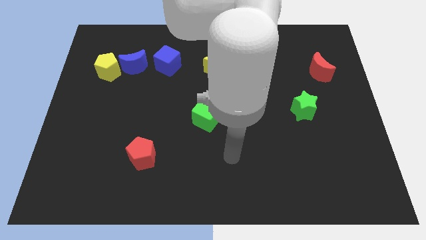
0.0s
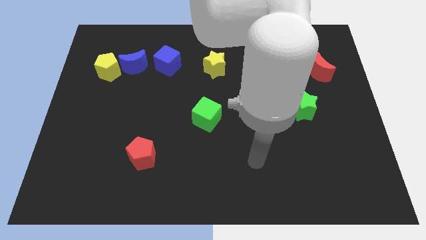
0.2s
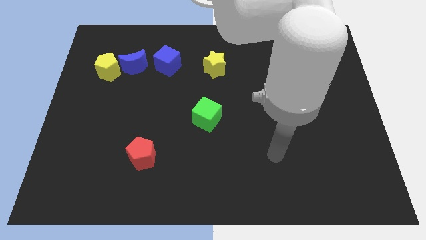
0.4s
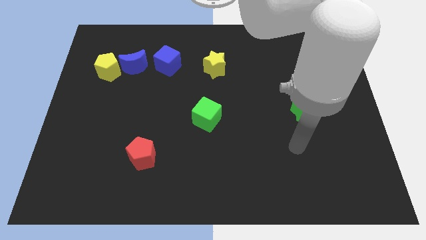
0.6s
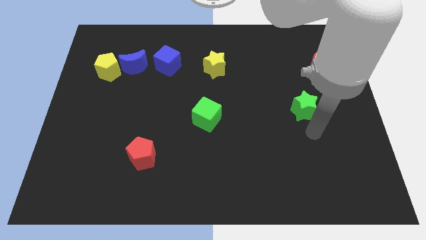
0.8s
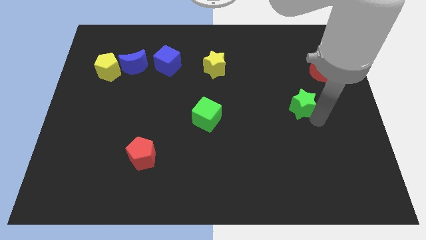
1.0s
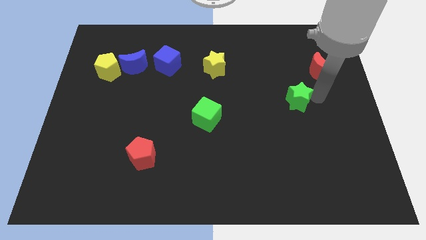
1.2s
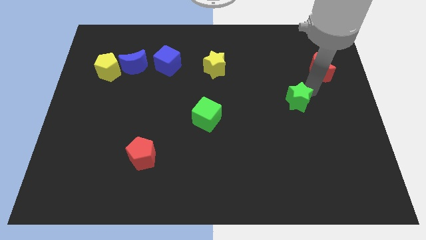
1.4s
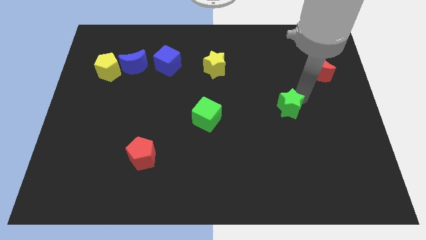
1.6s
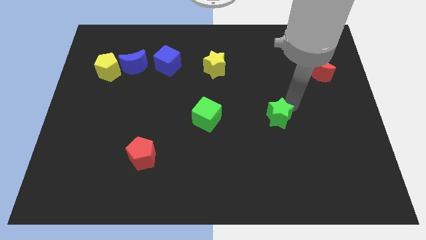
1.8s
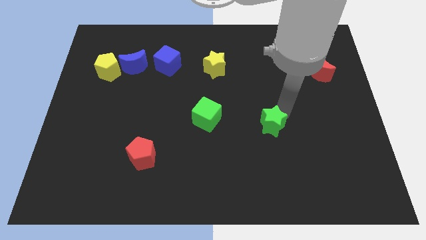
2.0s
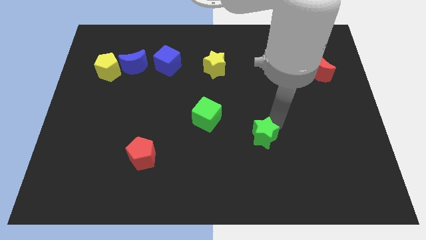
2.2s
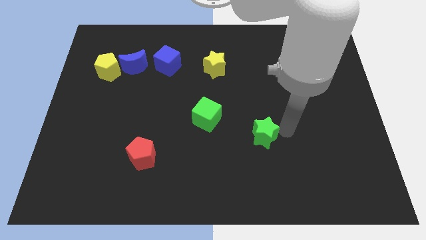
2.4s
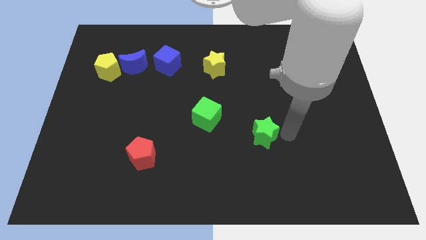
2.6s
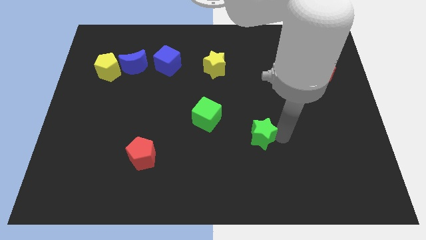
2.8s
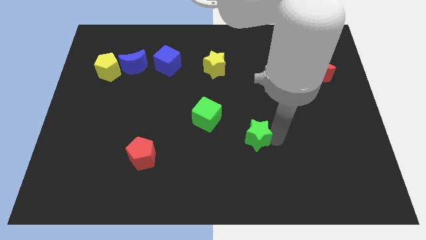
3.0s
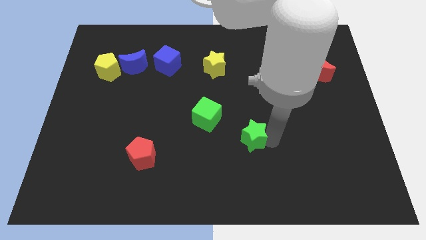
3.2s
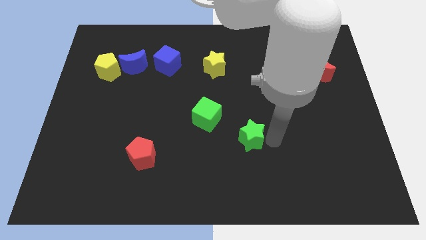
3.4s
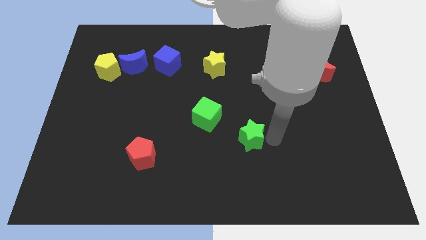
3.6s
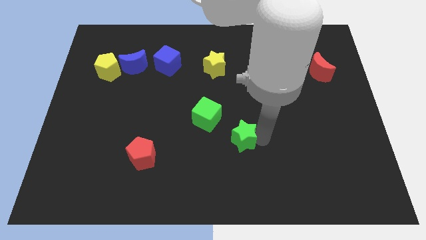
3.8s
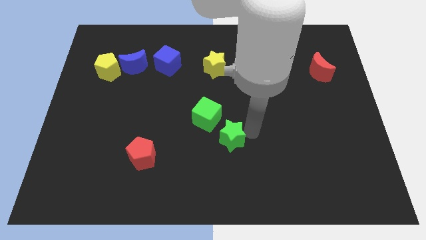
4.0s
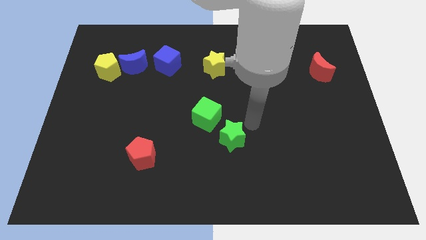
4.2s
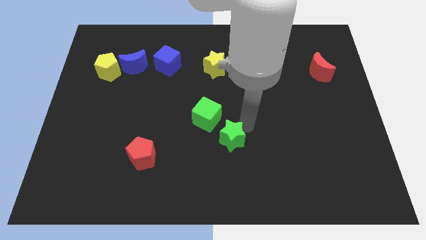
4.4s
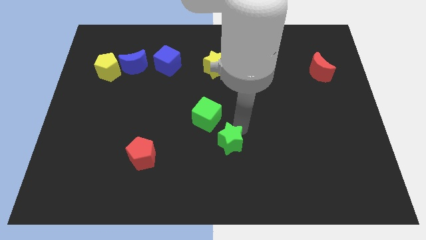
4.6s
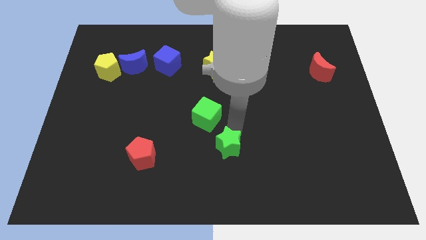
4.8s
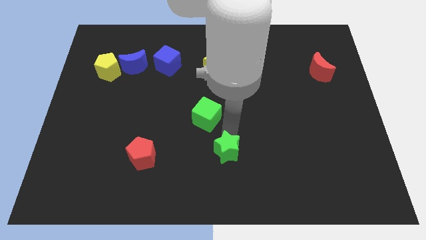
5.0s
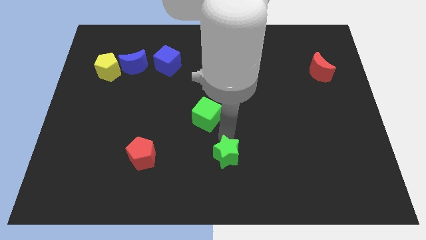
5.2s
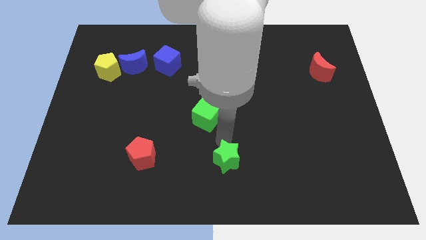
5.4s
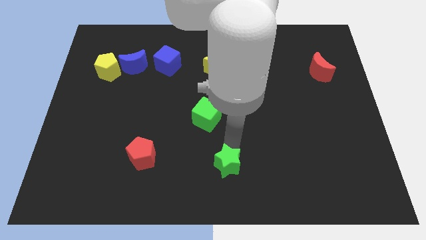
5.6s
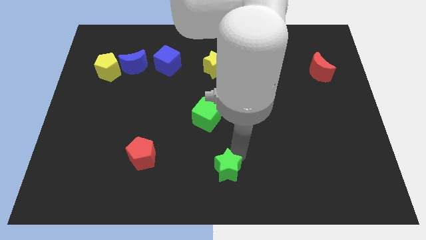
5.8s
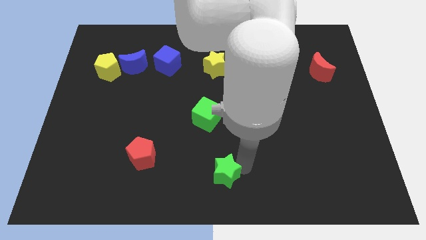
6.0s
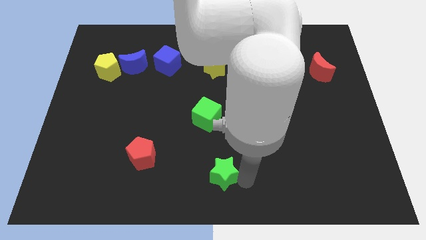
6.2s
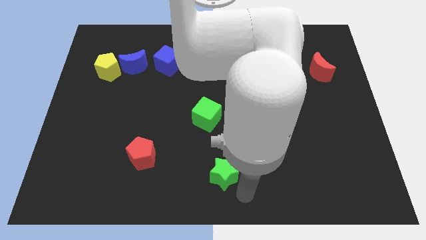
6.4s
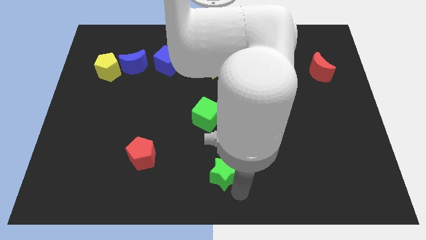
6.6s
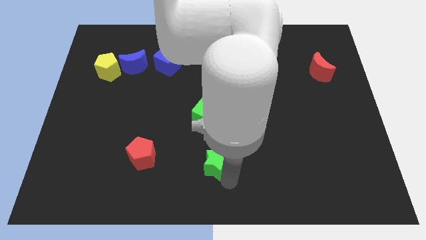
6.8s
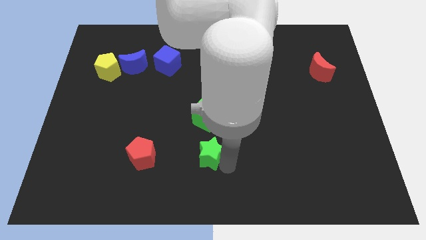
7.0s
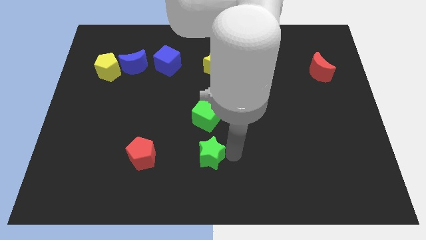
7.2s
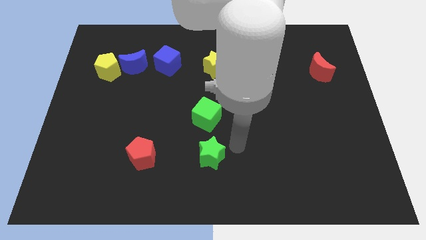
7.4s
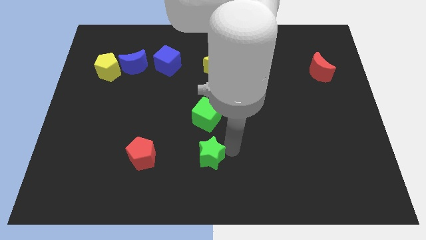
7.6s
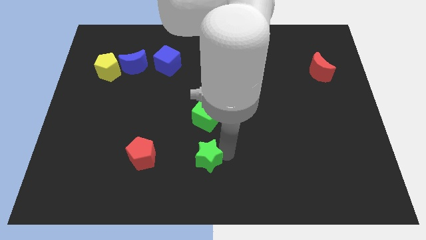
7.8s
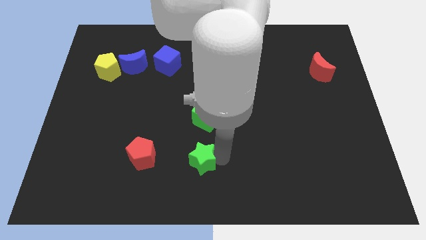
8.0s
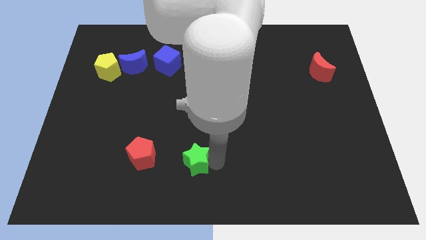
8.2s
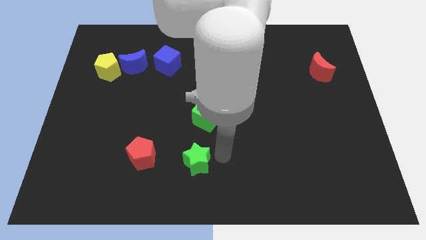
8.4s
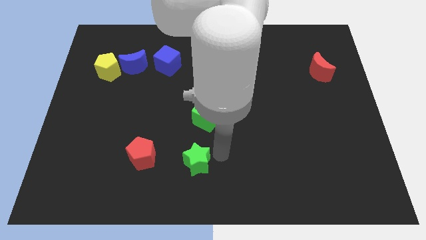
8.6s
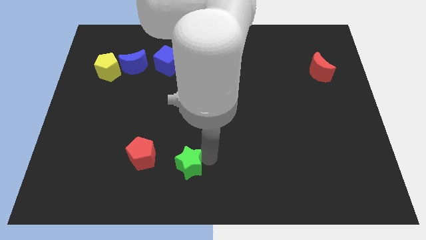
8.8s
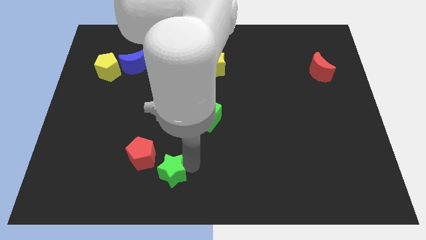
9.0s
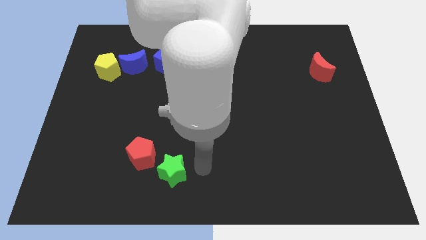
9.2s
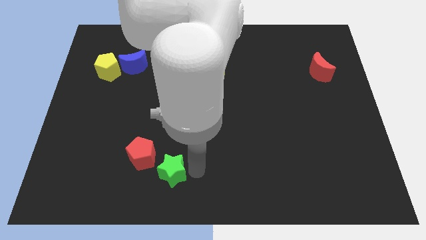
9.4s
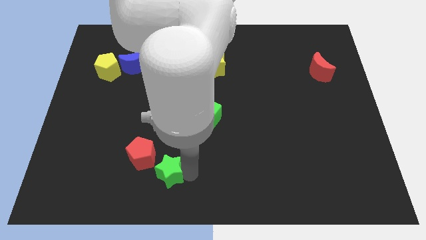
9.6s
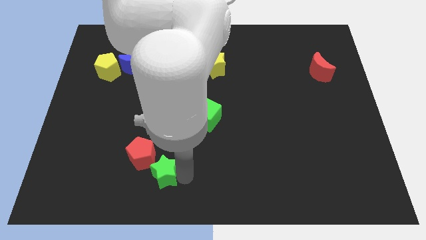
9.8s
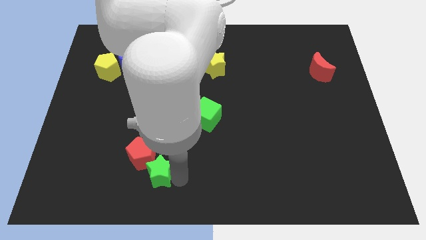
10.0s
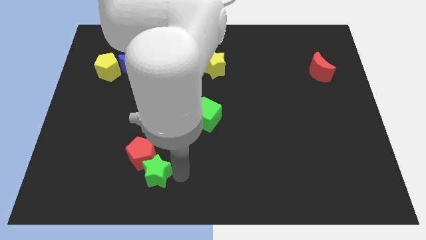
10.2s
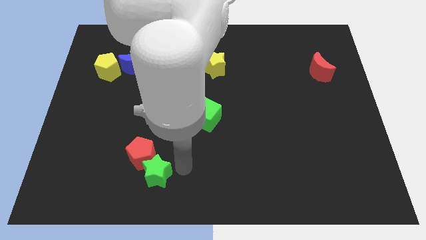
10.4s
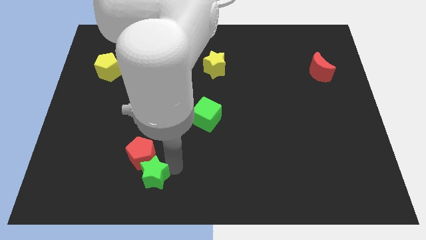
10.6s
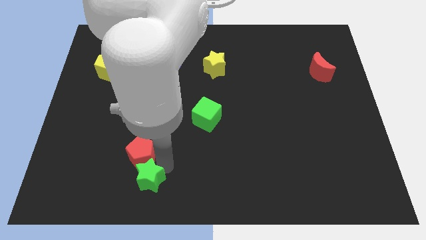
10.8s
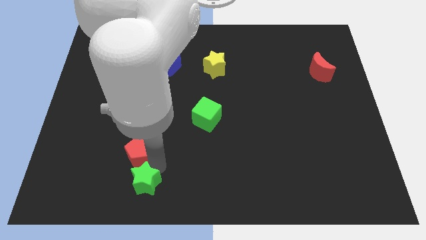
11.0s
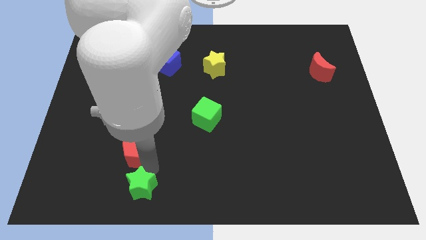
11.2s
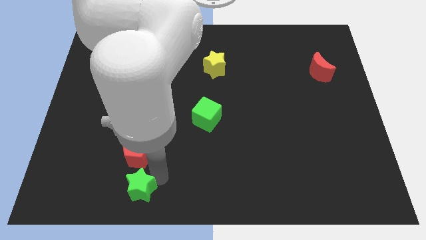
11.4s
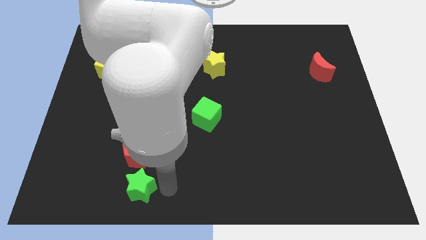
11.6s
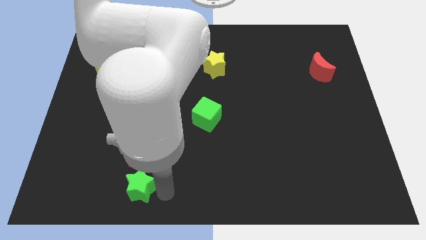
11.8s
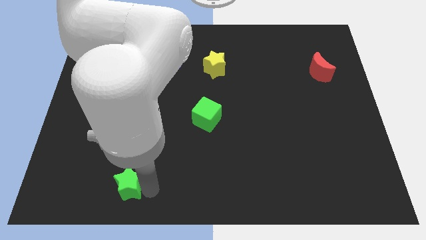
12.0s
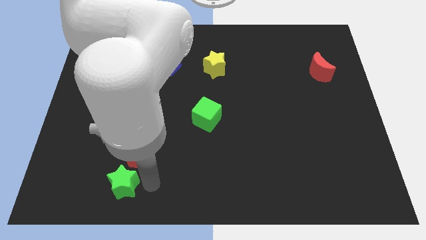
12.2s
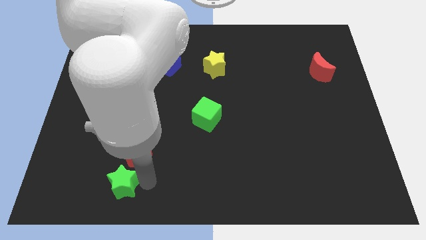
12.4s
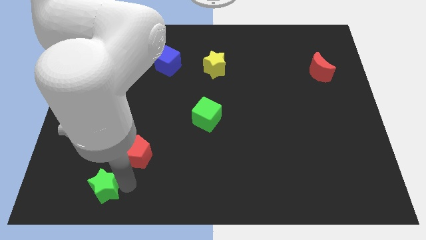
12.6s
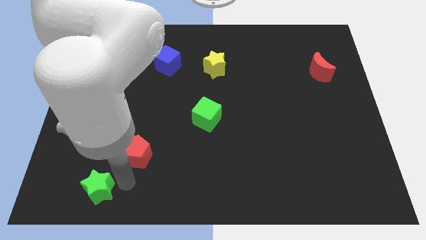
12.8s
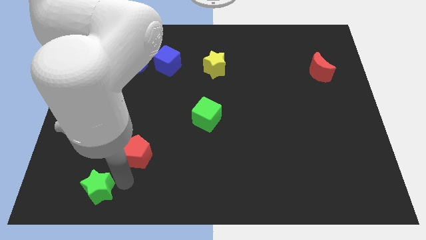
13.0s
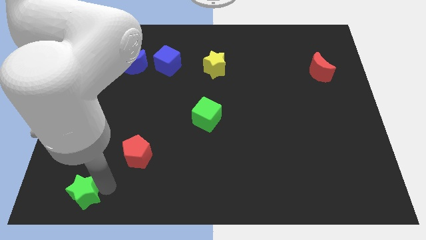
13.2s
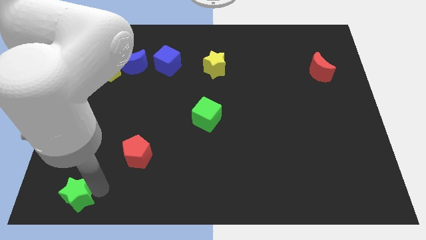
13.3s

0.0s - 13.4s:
push the green star to the bottom left of the board
